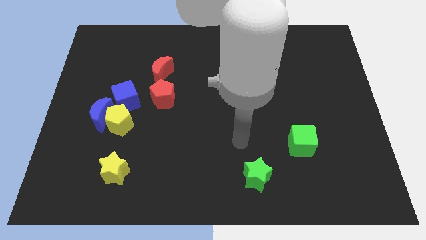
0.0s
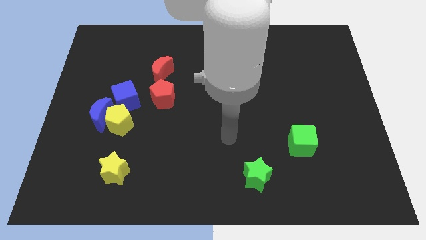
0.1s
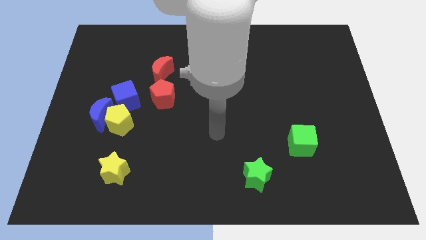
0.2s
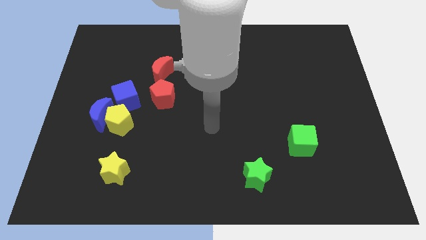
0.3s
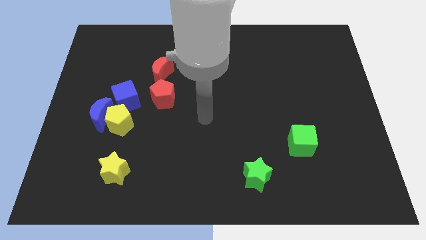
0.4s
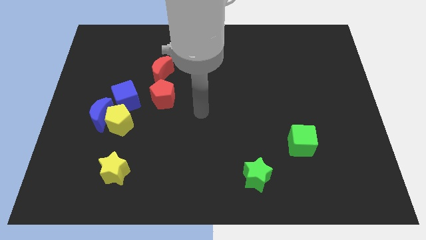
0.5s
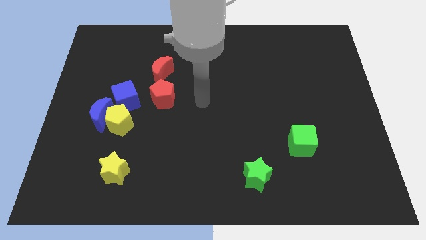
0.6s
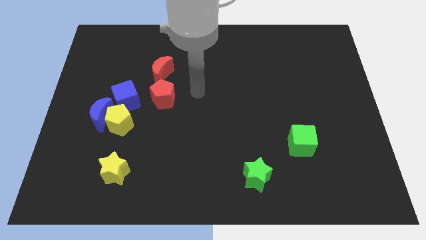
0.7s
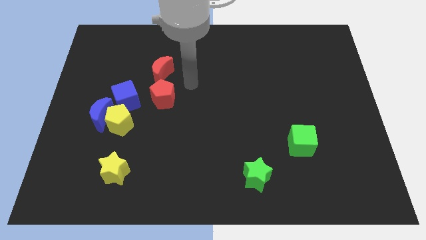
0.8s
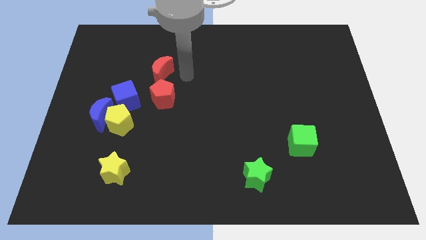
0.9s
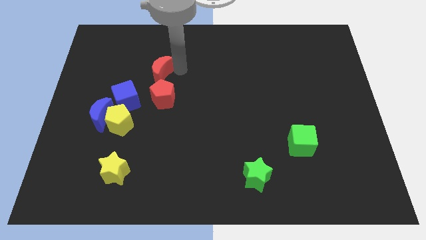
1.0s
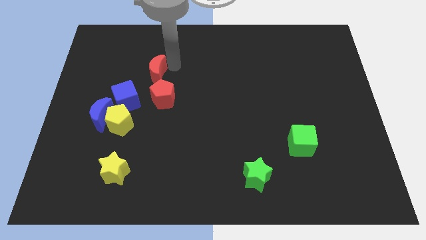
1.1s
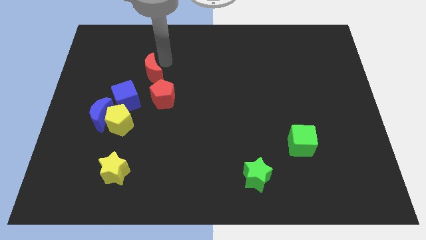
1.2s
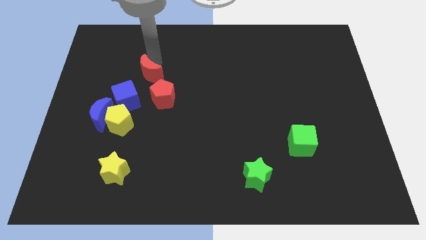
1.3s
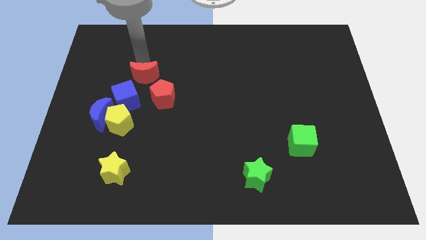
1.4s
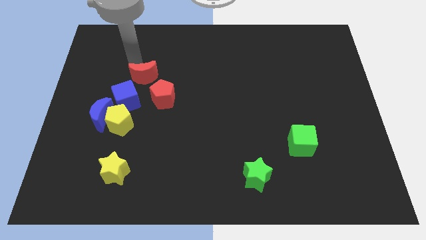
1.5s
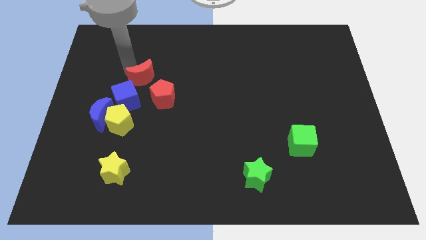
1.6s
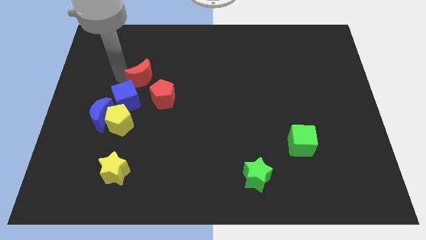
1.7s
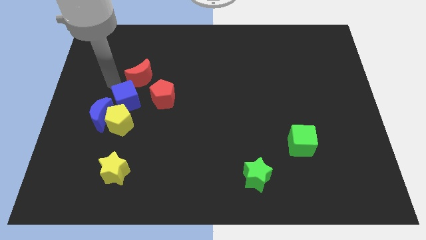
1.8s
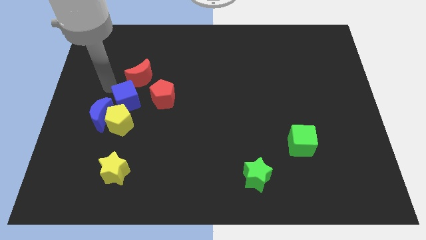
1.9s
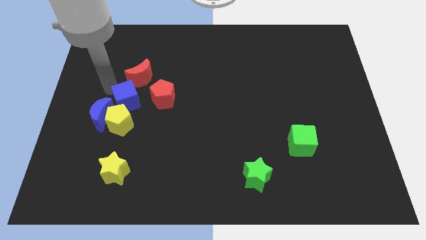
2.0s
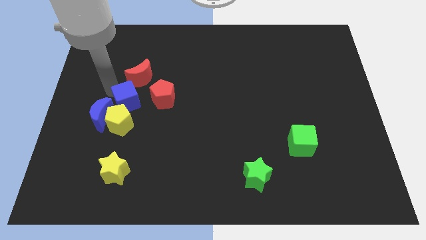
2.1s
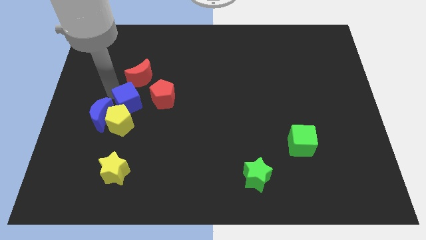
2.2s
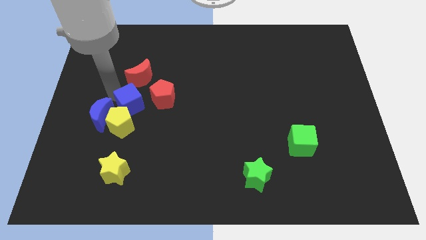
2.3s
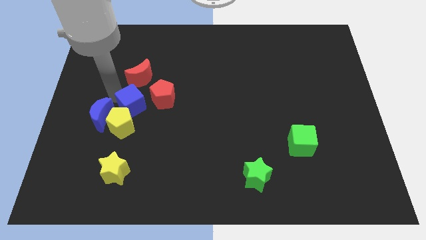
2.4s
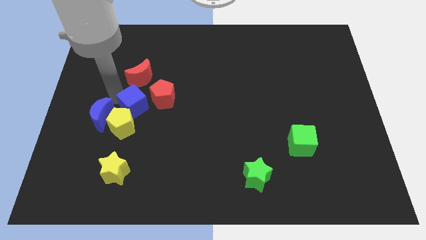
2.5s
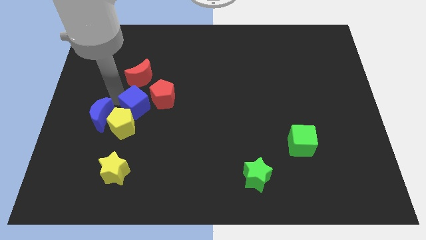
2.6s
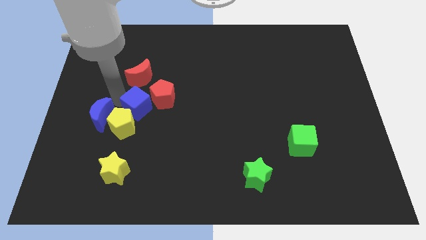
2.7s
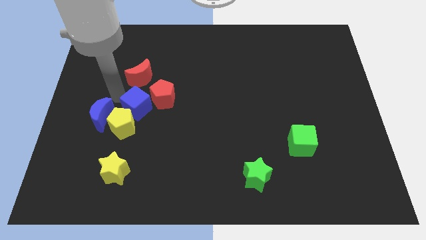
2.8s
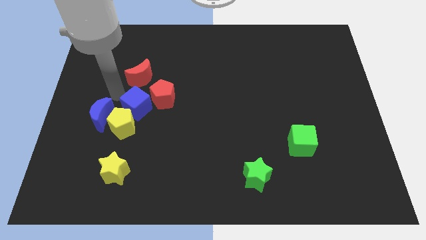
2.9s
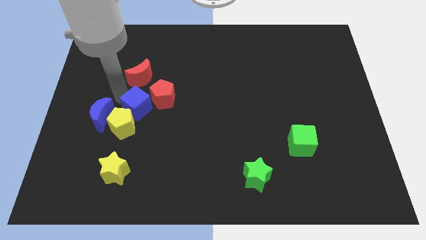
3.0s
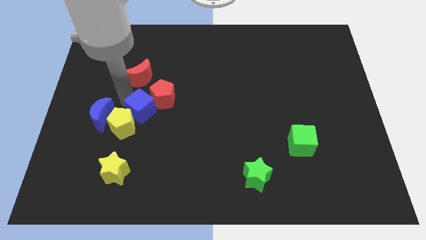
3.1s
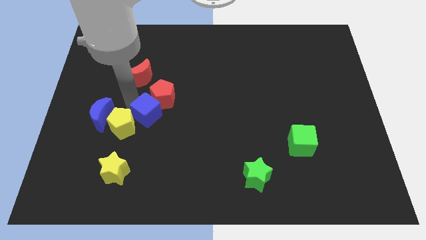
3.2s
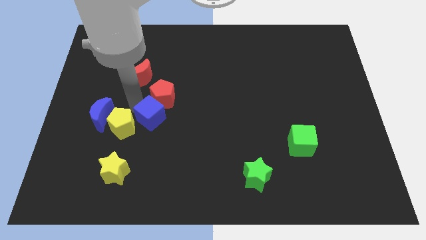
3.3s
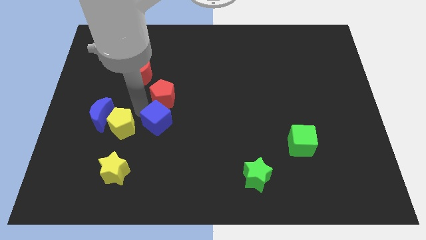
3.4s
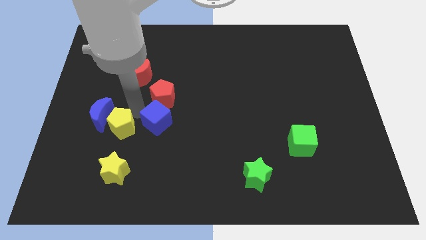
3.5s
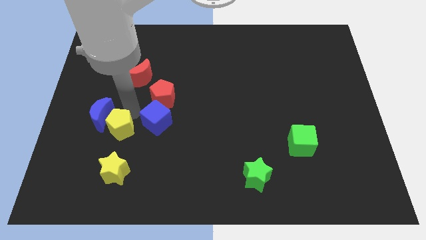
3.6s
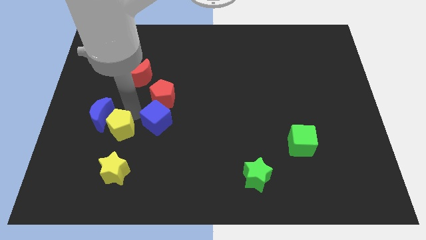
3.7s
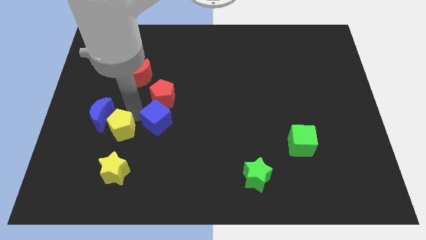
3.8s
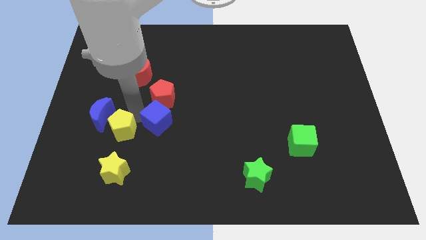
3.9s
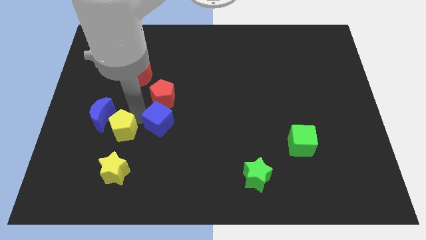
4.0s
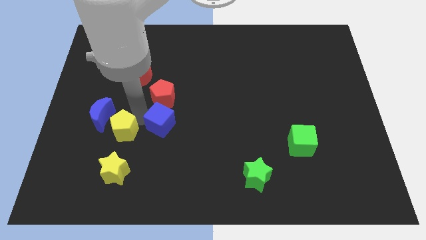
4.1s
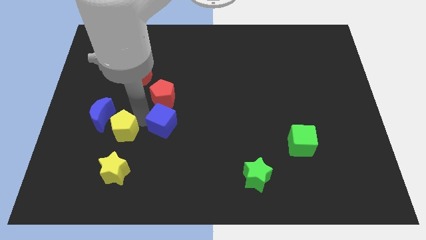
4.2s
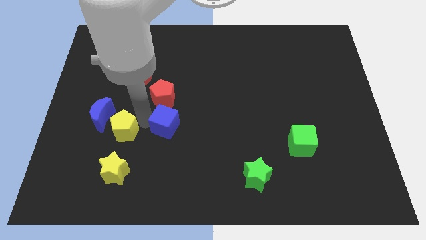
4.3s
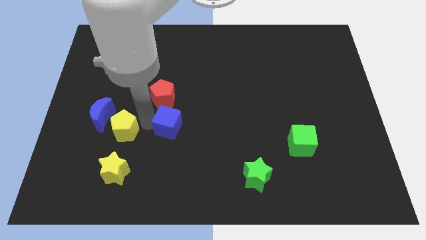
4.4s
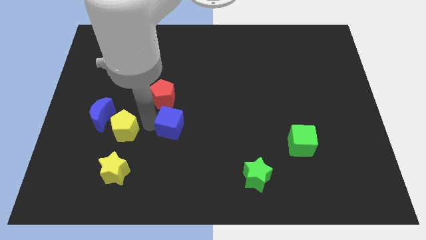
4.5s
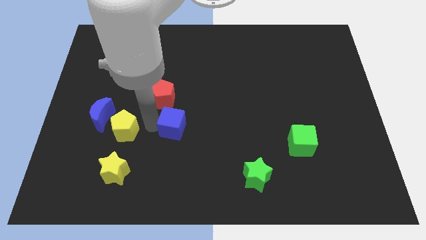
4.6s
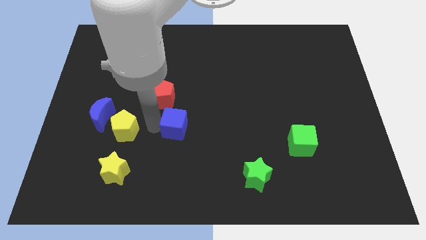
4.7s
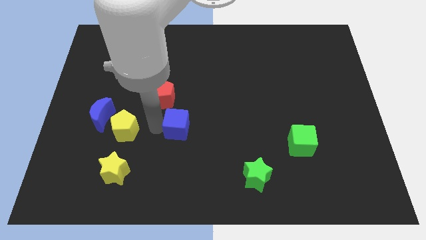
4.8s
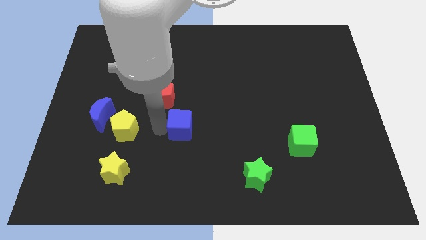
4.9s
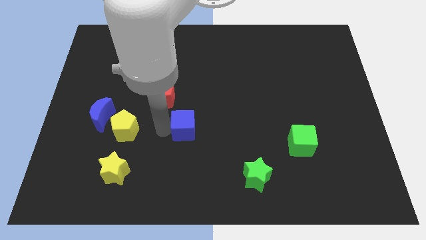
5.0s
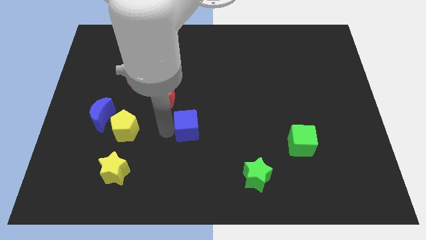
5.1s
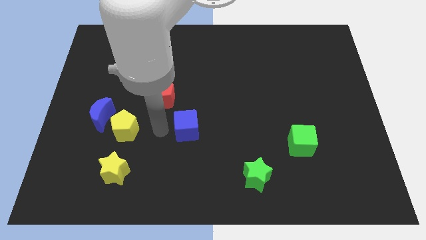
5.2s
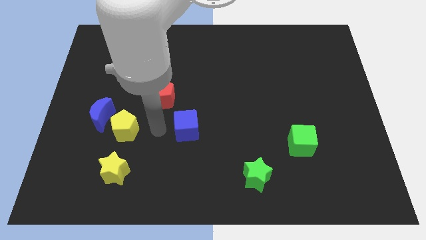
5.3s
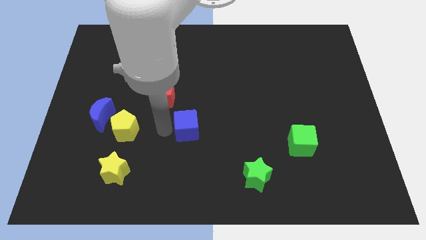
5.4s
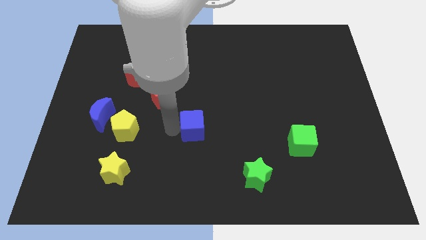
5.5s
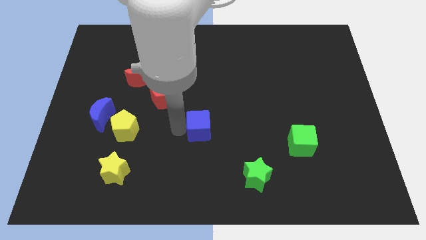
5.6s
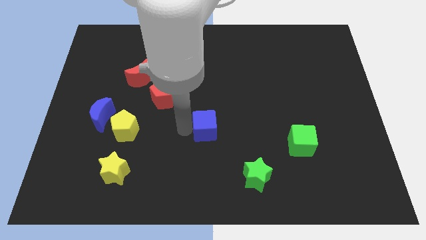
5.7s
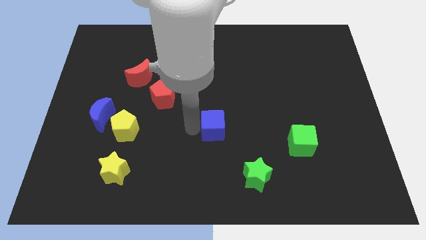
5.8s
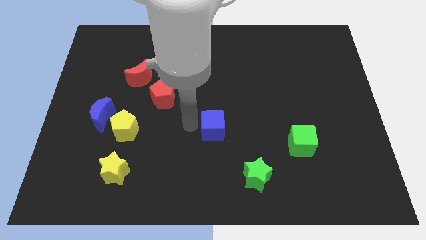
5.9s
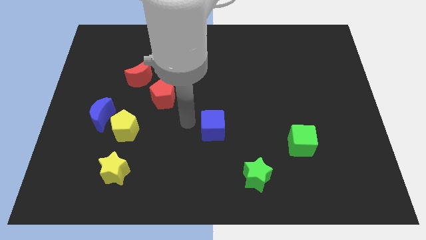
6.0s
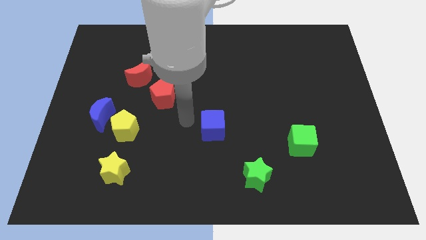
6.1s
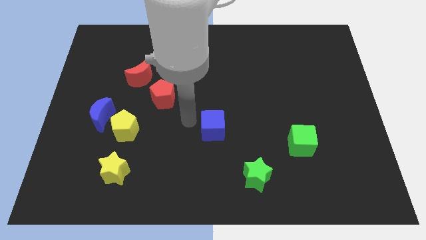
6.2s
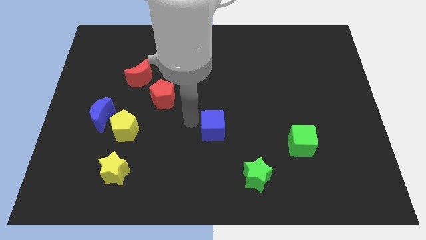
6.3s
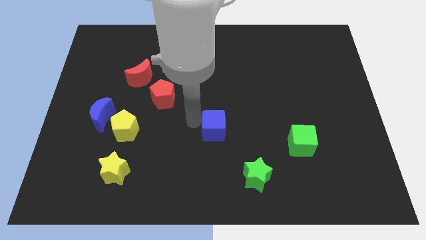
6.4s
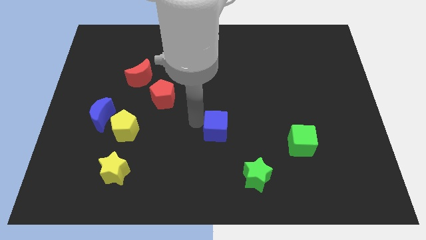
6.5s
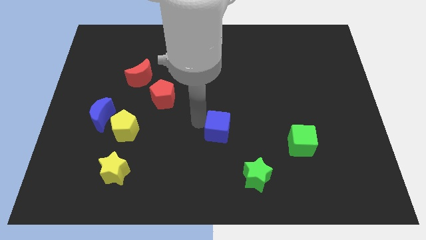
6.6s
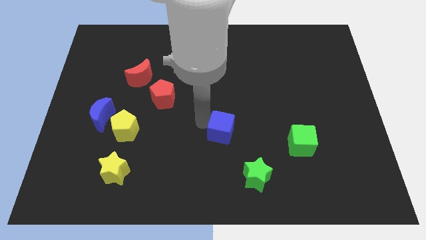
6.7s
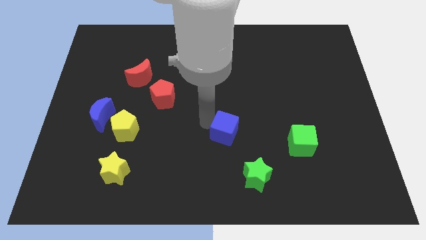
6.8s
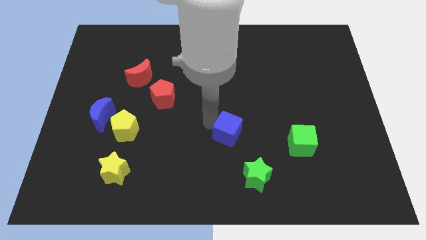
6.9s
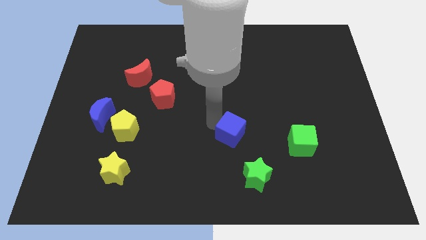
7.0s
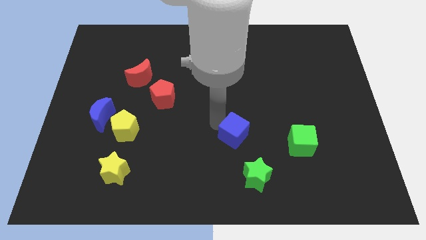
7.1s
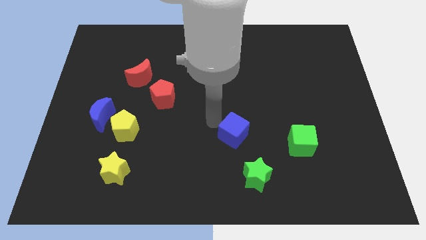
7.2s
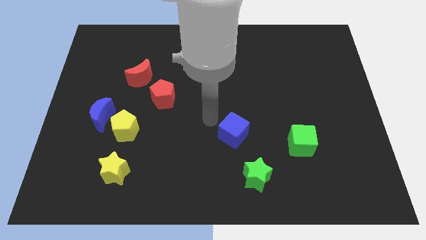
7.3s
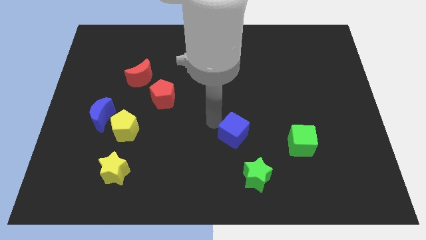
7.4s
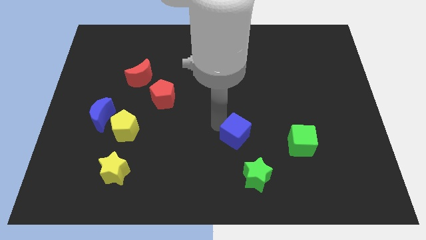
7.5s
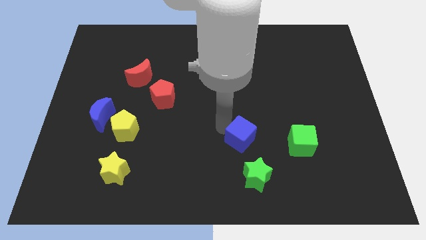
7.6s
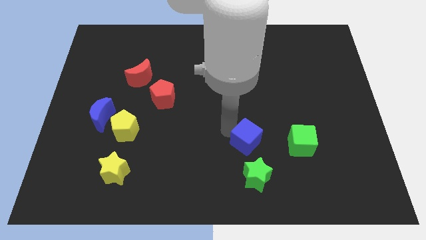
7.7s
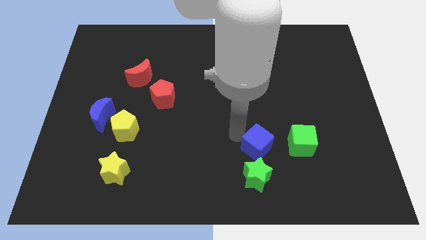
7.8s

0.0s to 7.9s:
put the blue cube to the top right of the green star
